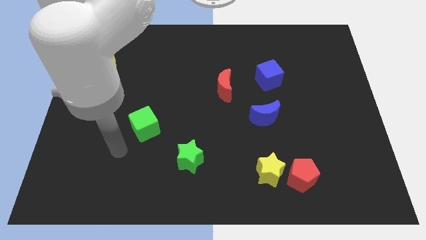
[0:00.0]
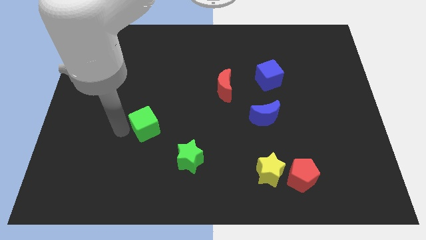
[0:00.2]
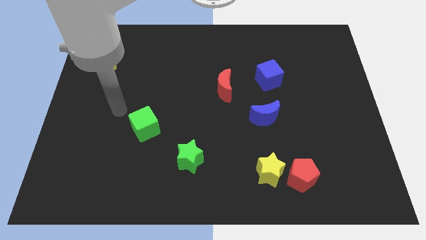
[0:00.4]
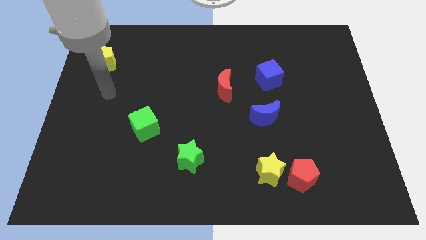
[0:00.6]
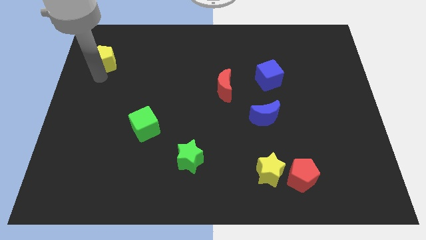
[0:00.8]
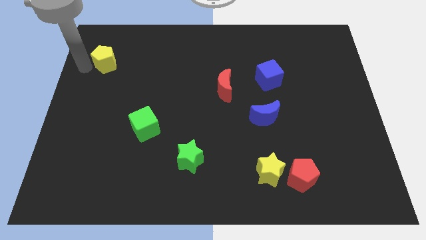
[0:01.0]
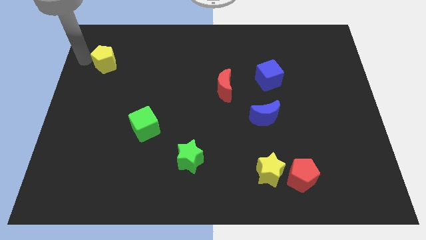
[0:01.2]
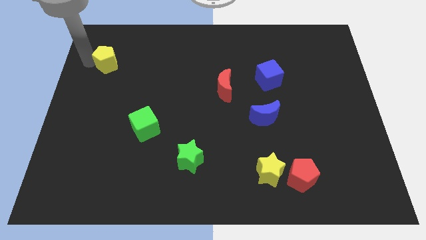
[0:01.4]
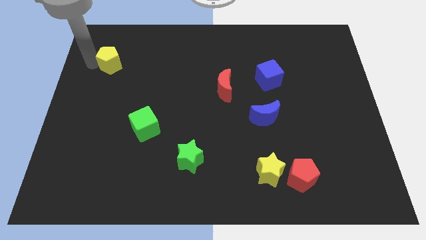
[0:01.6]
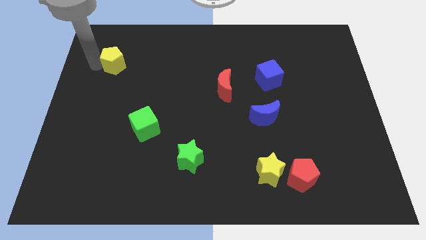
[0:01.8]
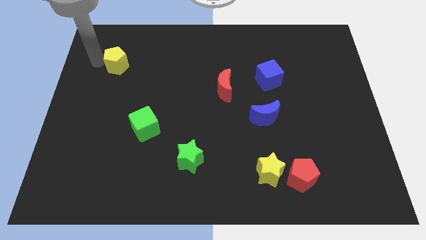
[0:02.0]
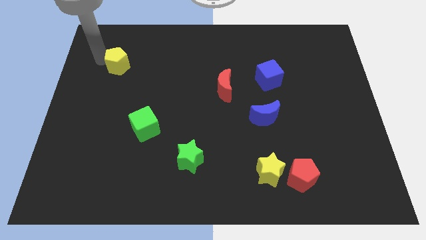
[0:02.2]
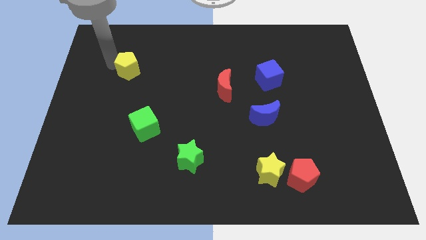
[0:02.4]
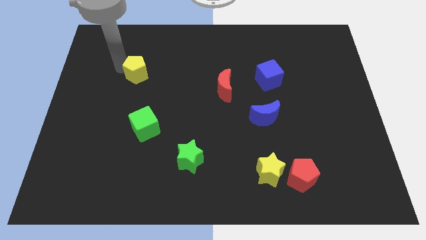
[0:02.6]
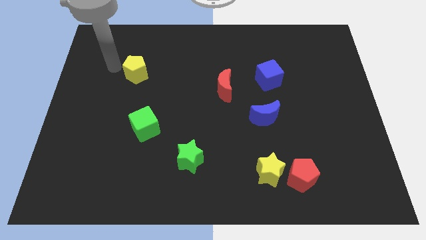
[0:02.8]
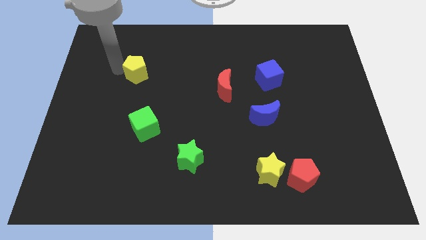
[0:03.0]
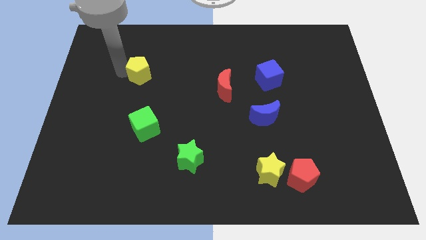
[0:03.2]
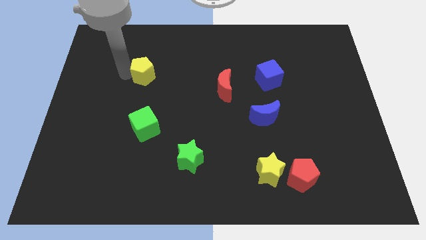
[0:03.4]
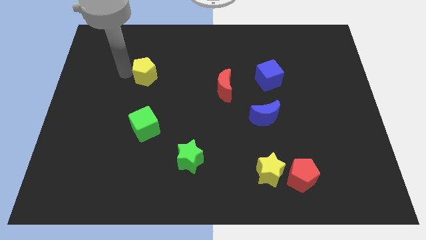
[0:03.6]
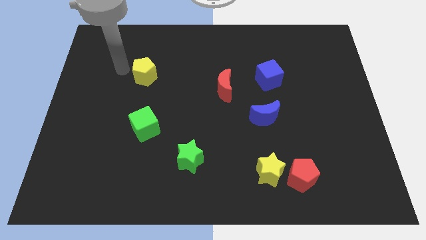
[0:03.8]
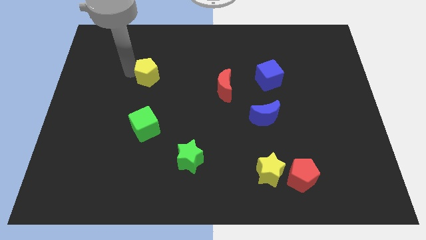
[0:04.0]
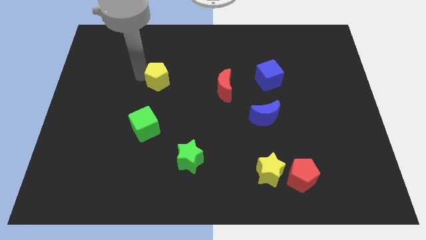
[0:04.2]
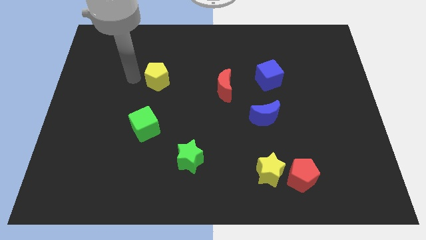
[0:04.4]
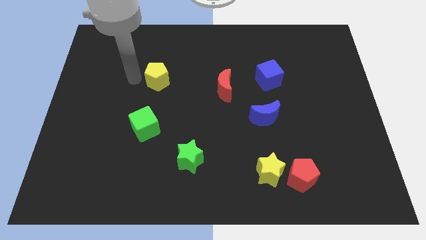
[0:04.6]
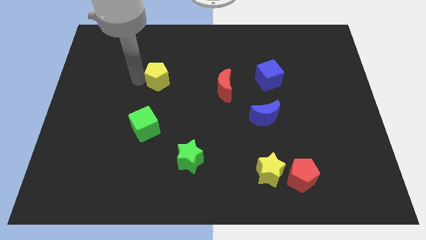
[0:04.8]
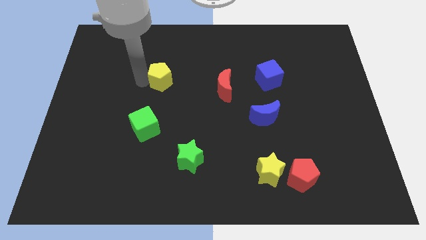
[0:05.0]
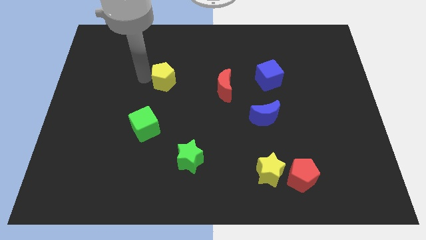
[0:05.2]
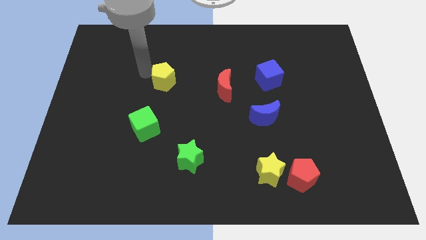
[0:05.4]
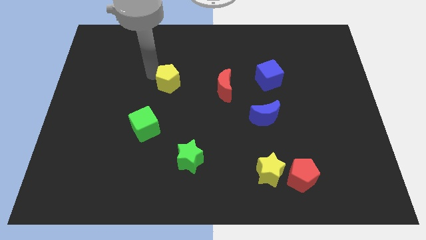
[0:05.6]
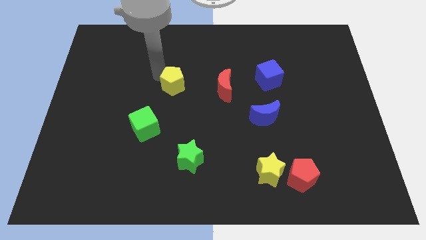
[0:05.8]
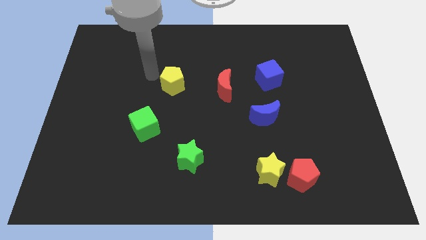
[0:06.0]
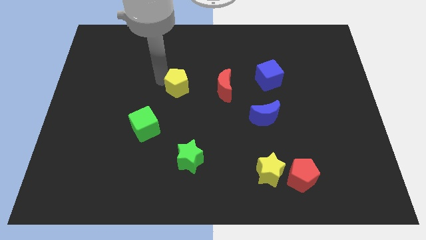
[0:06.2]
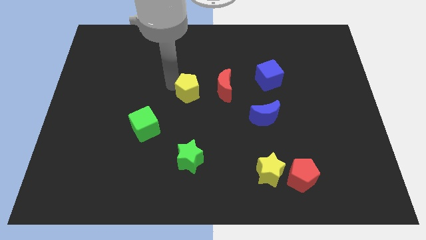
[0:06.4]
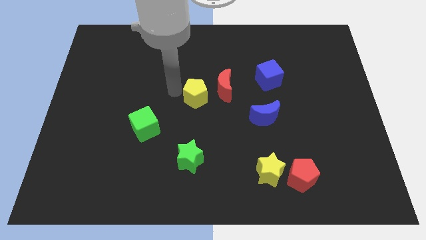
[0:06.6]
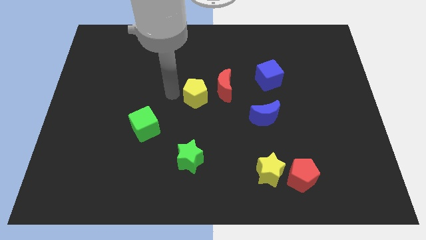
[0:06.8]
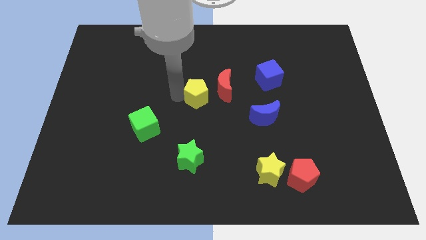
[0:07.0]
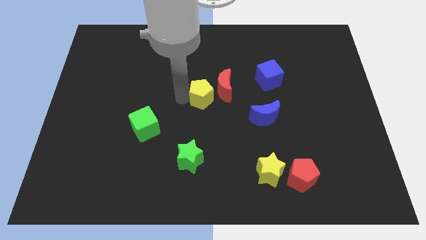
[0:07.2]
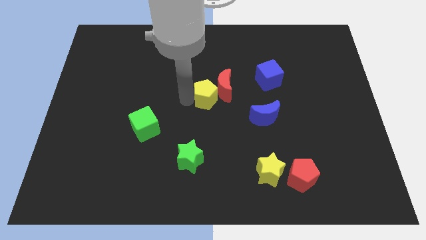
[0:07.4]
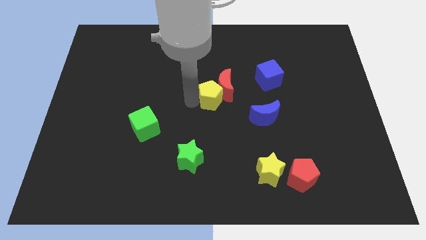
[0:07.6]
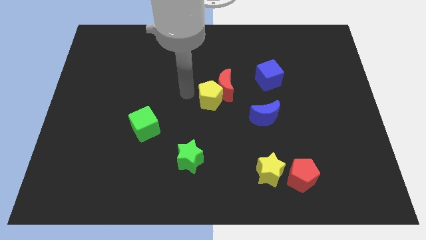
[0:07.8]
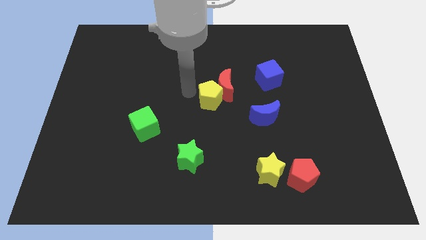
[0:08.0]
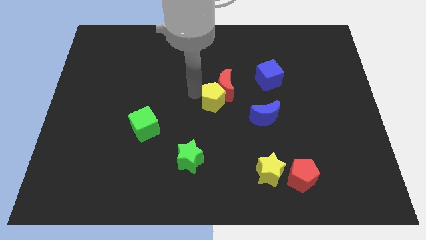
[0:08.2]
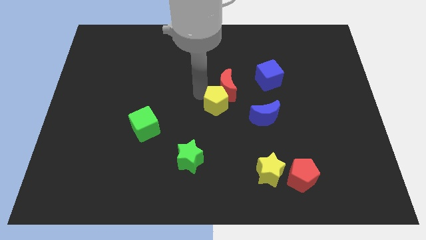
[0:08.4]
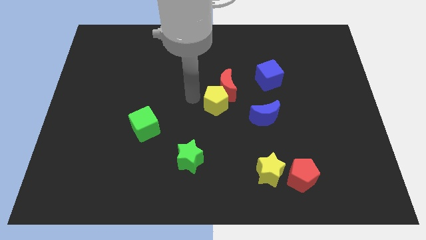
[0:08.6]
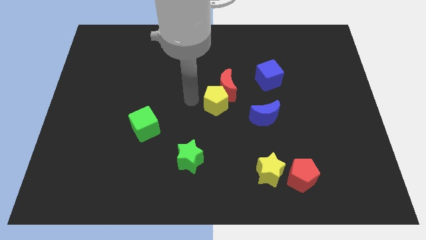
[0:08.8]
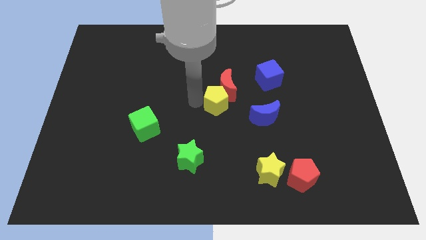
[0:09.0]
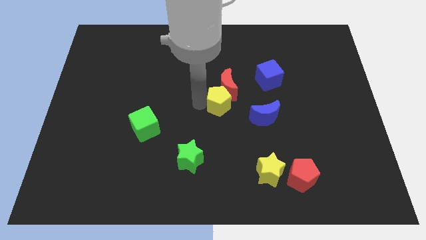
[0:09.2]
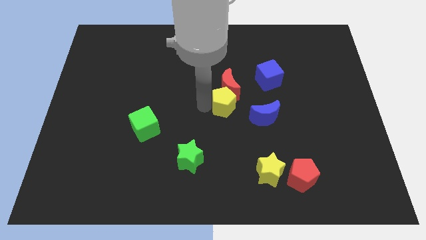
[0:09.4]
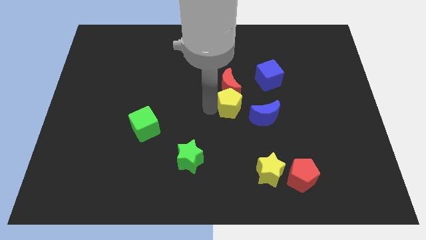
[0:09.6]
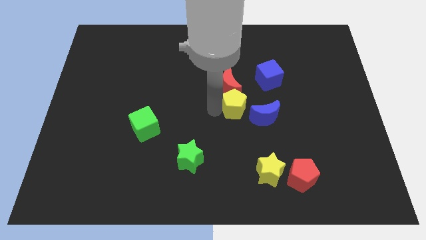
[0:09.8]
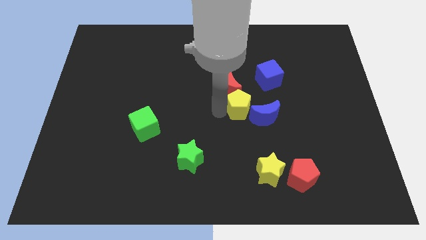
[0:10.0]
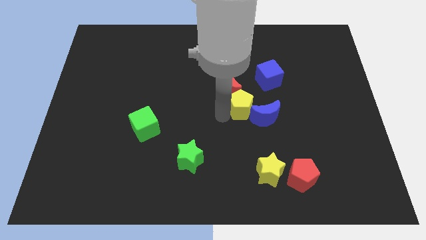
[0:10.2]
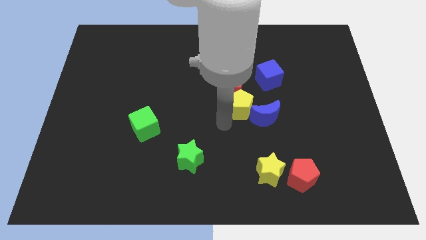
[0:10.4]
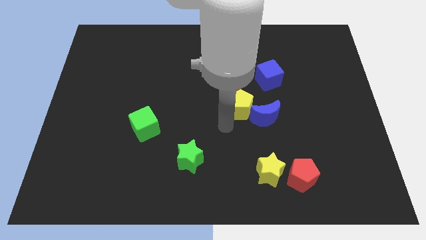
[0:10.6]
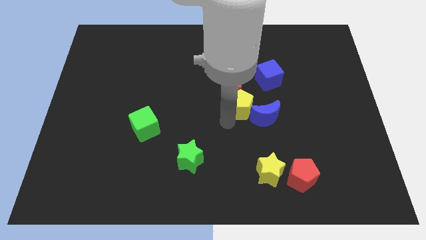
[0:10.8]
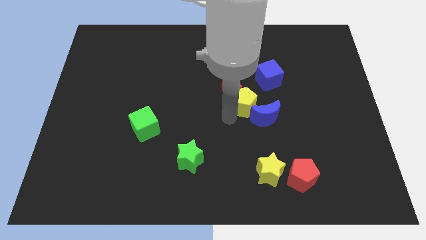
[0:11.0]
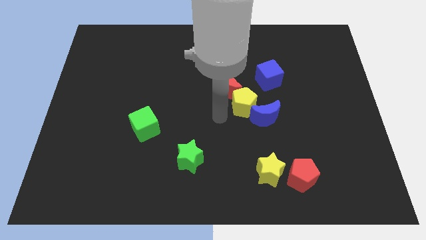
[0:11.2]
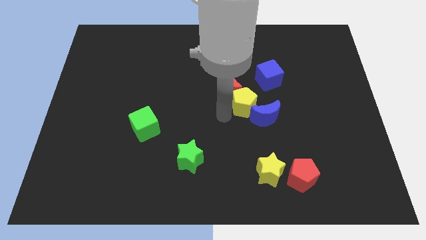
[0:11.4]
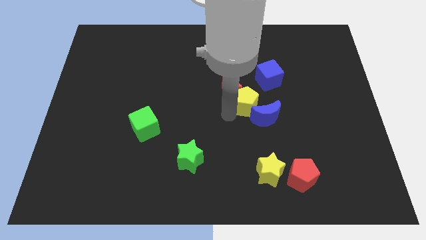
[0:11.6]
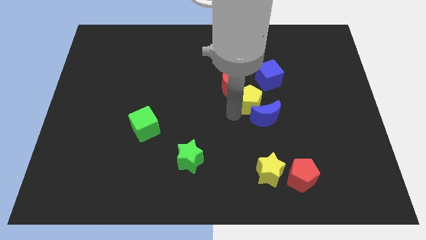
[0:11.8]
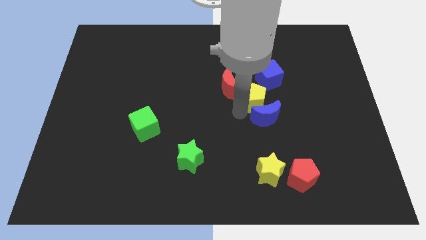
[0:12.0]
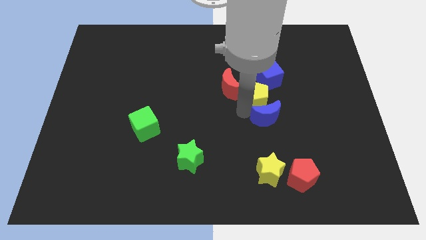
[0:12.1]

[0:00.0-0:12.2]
move the yellow pentagon to the top right side of the blue moon

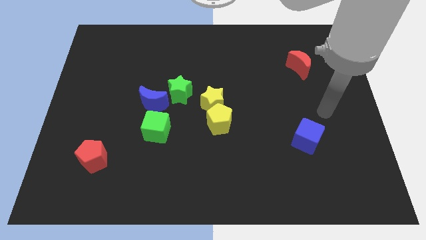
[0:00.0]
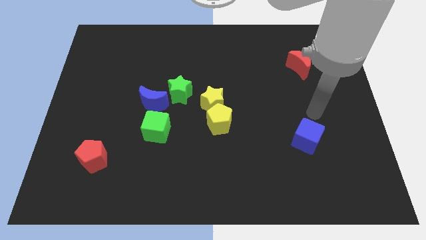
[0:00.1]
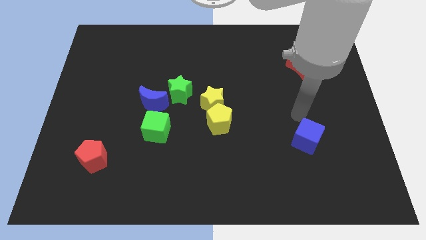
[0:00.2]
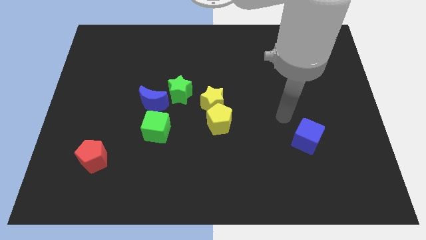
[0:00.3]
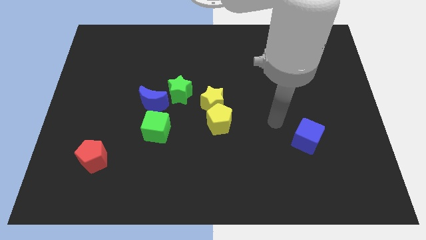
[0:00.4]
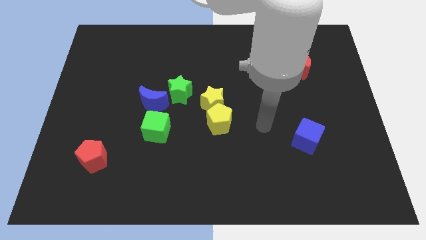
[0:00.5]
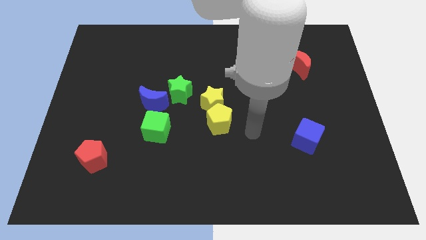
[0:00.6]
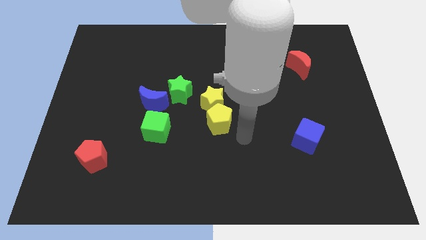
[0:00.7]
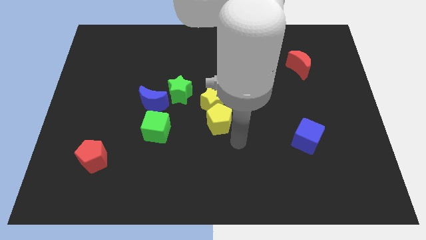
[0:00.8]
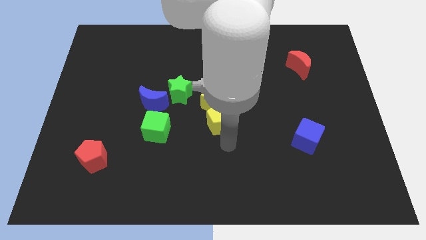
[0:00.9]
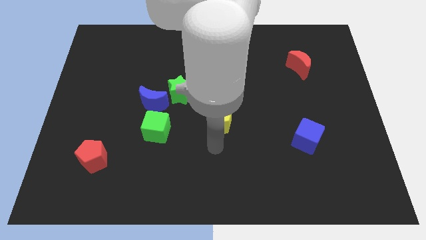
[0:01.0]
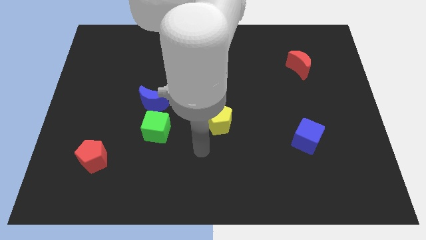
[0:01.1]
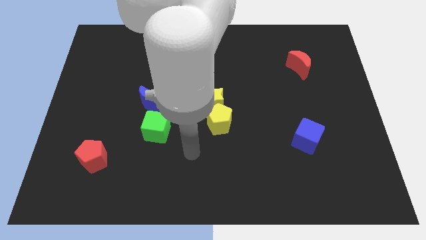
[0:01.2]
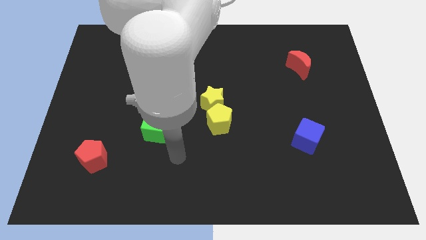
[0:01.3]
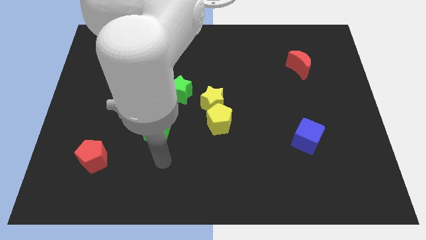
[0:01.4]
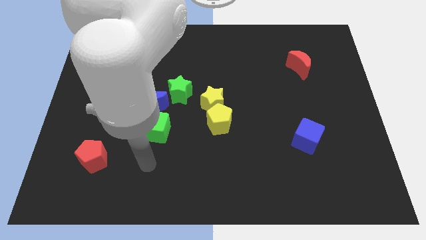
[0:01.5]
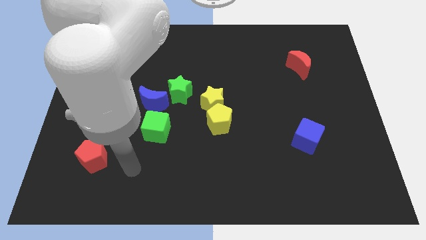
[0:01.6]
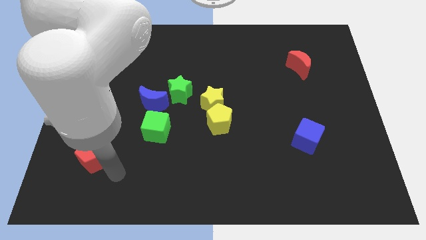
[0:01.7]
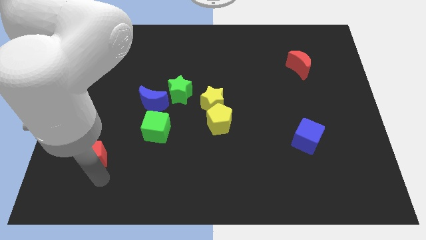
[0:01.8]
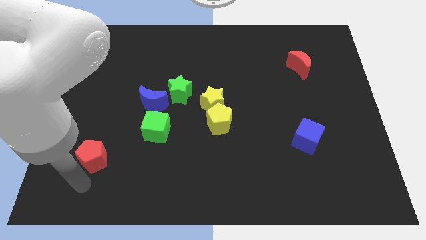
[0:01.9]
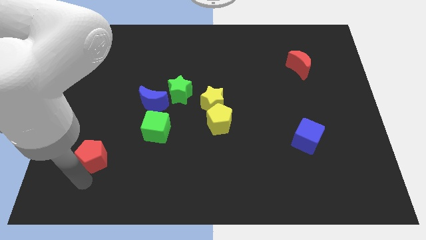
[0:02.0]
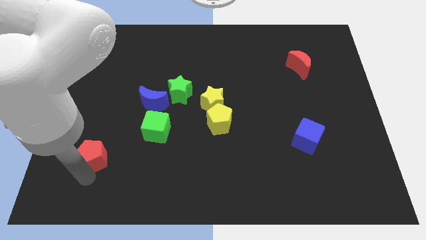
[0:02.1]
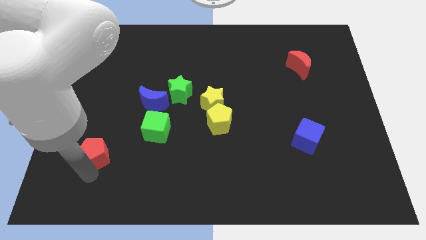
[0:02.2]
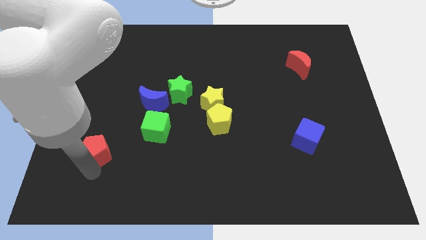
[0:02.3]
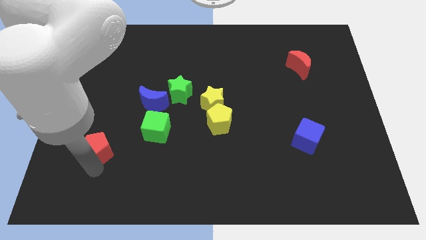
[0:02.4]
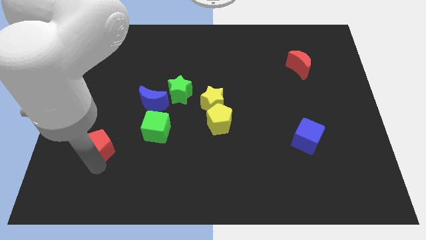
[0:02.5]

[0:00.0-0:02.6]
slide the red pentagon to the left of the green cube
